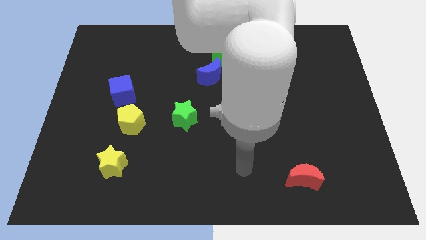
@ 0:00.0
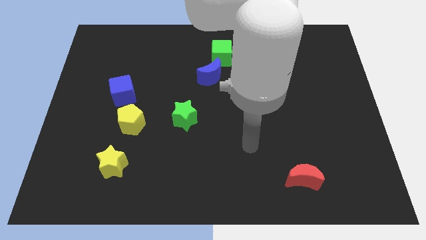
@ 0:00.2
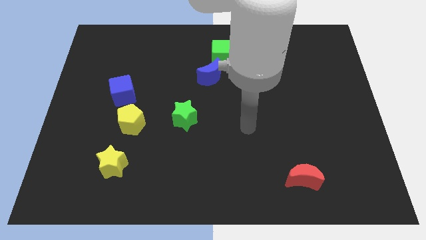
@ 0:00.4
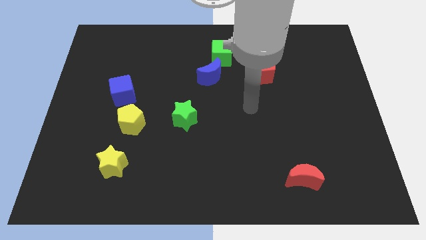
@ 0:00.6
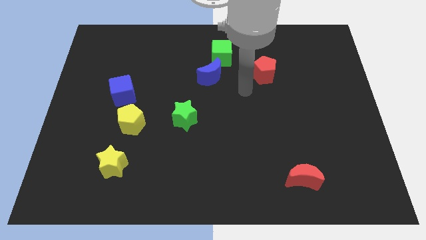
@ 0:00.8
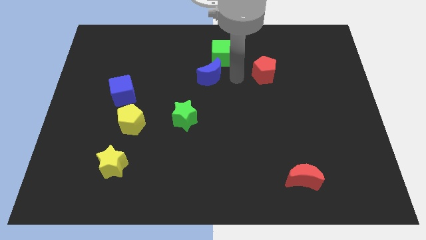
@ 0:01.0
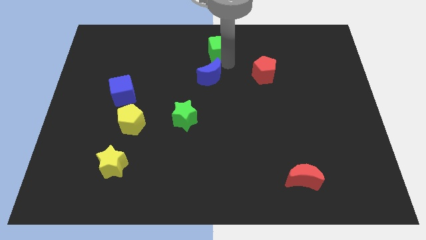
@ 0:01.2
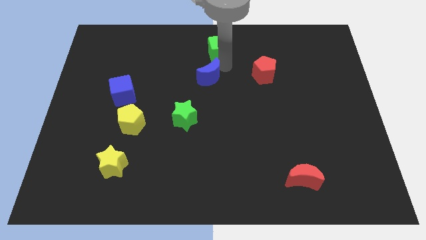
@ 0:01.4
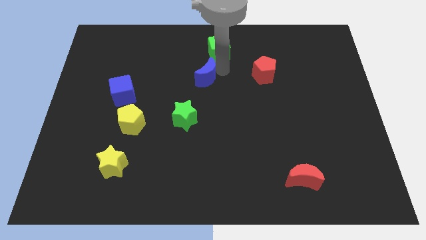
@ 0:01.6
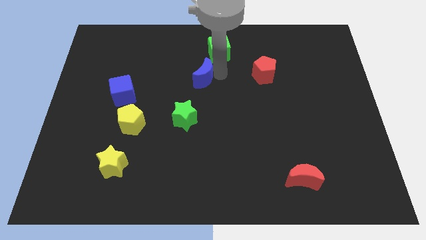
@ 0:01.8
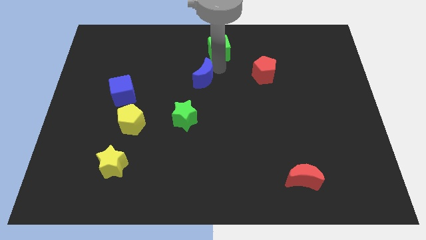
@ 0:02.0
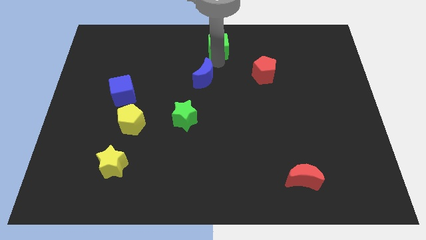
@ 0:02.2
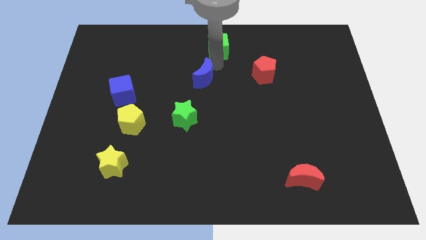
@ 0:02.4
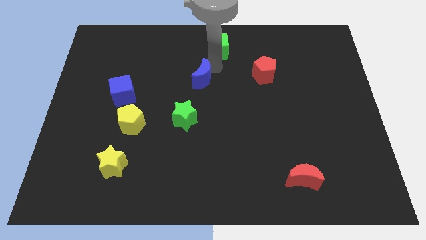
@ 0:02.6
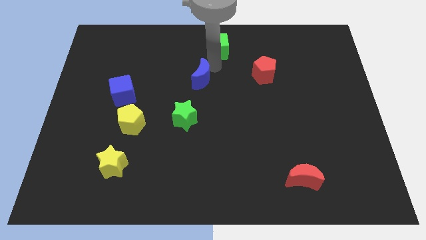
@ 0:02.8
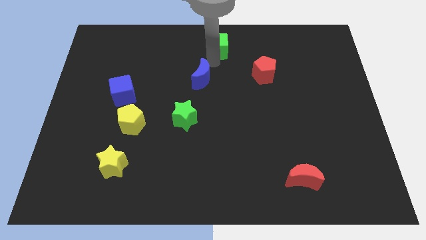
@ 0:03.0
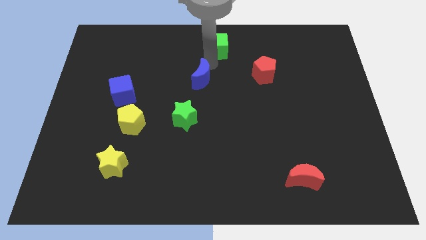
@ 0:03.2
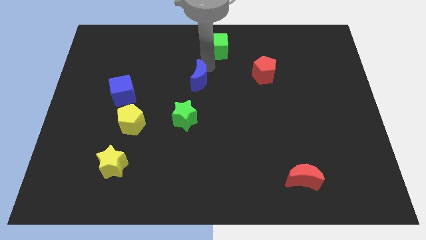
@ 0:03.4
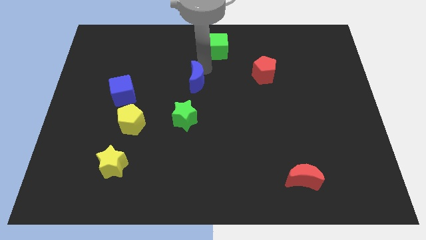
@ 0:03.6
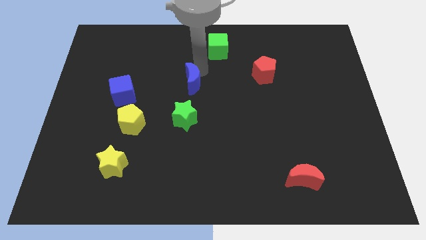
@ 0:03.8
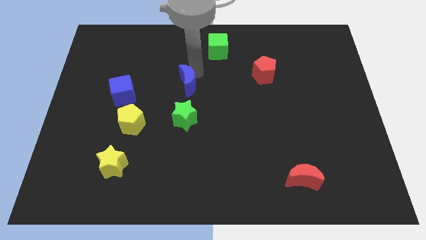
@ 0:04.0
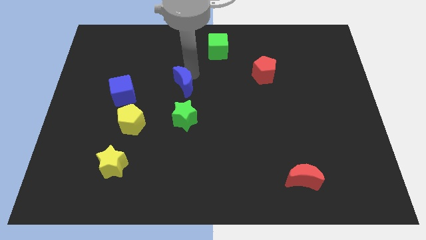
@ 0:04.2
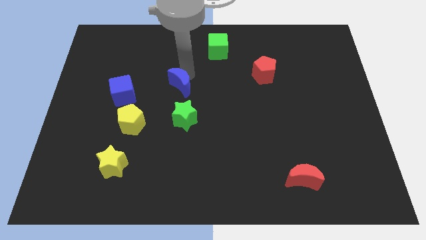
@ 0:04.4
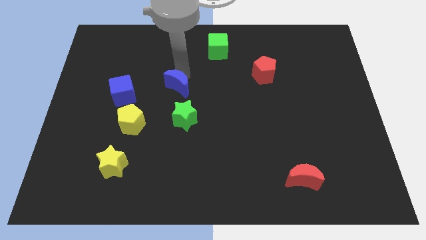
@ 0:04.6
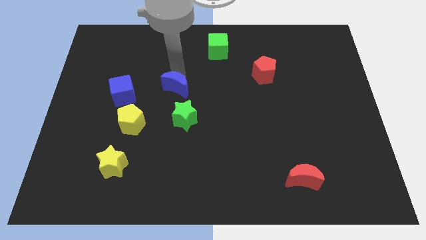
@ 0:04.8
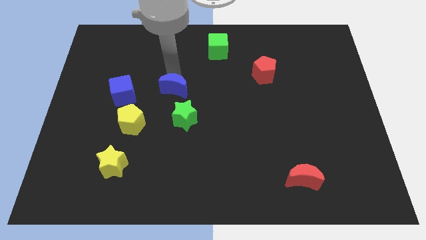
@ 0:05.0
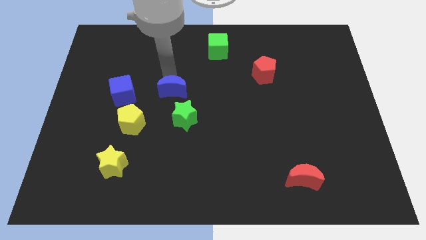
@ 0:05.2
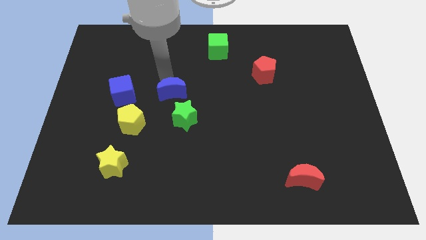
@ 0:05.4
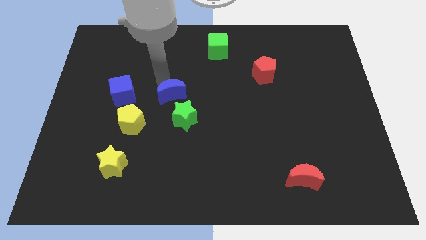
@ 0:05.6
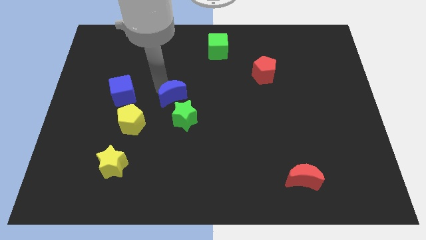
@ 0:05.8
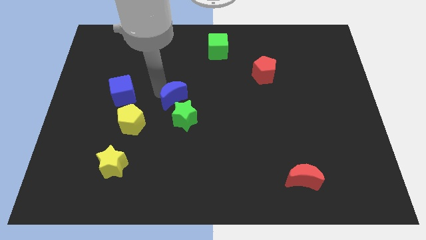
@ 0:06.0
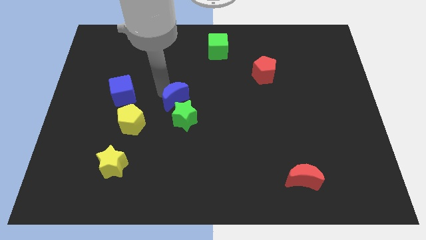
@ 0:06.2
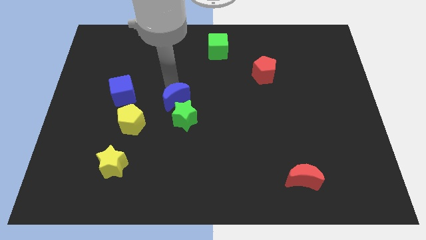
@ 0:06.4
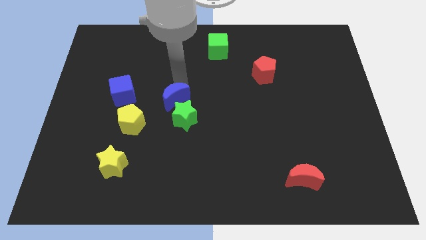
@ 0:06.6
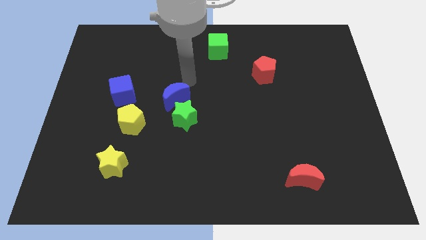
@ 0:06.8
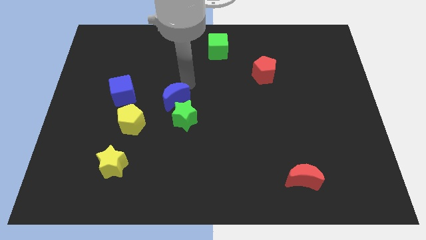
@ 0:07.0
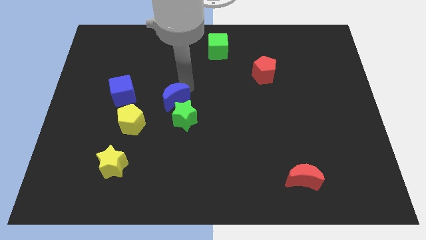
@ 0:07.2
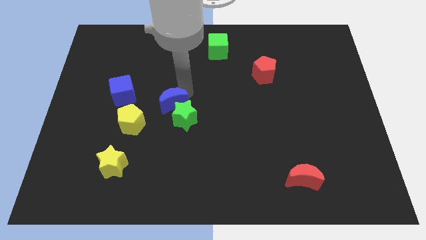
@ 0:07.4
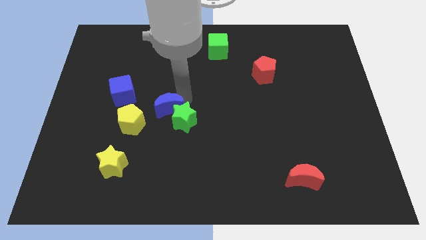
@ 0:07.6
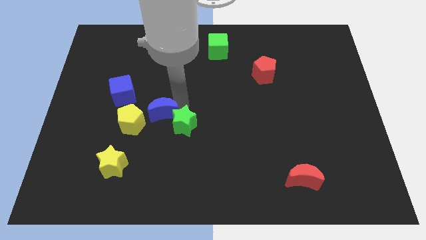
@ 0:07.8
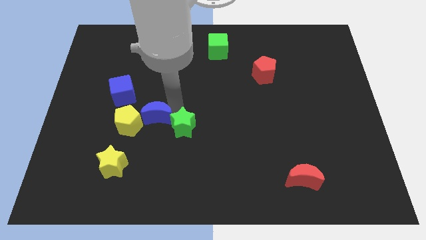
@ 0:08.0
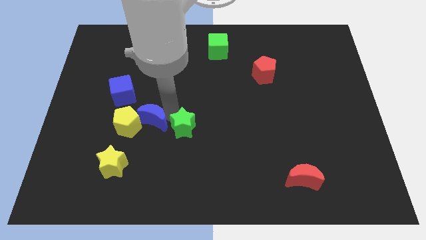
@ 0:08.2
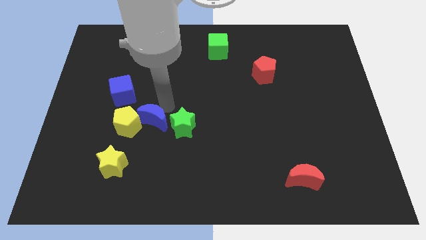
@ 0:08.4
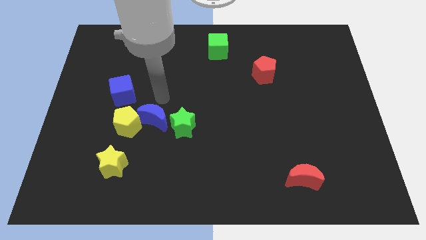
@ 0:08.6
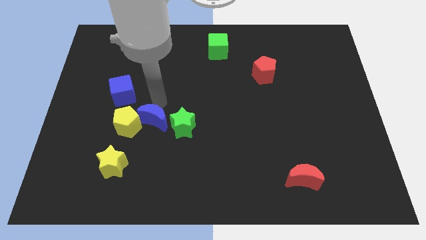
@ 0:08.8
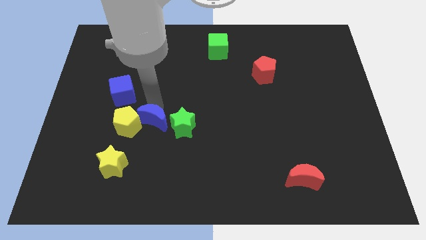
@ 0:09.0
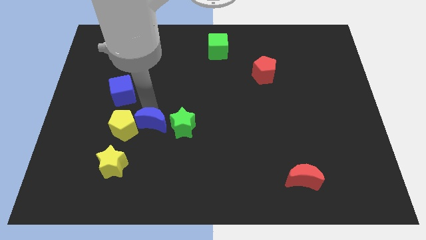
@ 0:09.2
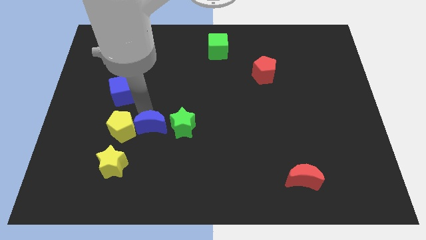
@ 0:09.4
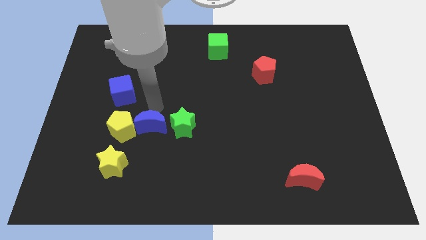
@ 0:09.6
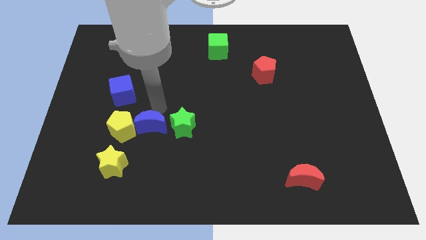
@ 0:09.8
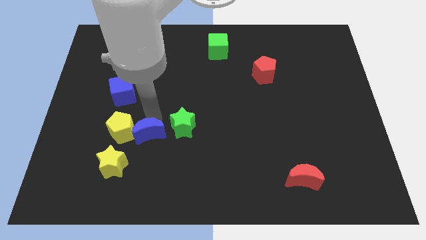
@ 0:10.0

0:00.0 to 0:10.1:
move the blue moon to the bottom right side of the yellow pentagon

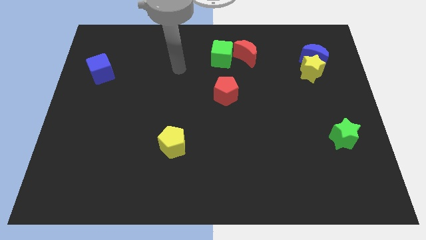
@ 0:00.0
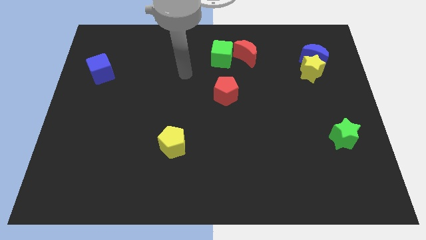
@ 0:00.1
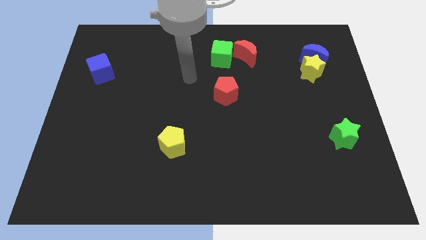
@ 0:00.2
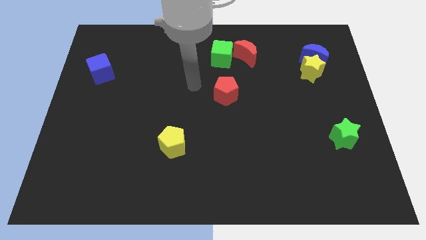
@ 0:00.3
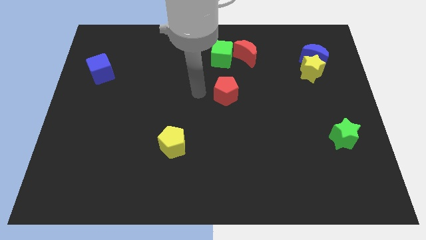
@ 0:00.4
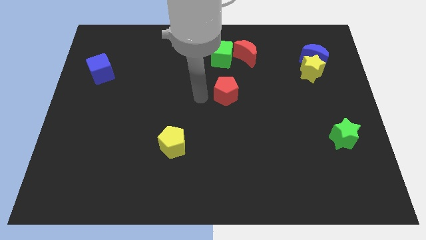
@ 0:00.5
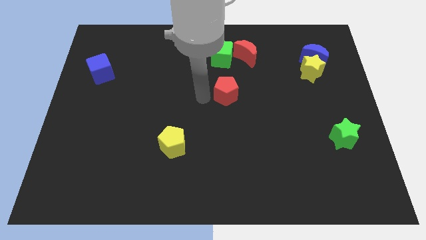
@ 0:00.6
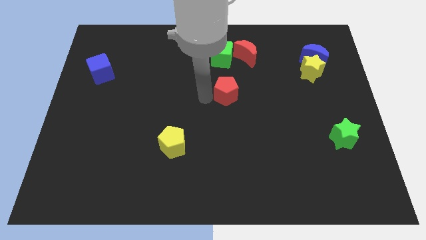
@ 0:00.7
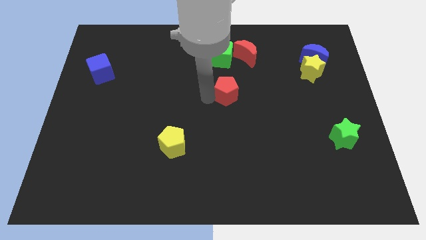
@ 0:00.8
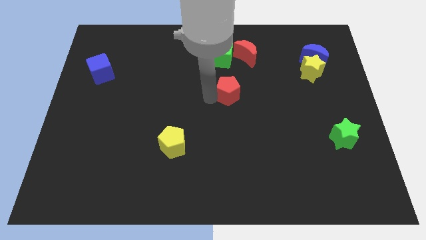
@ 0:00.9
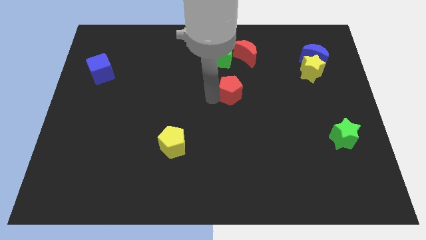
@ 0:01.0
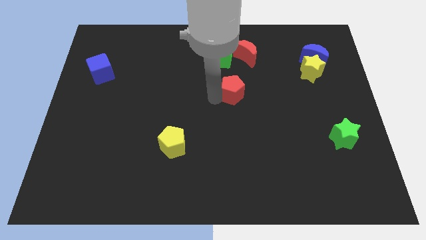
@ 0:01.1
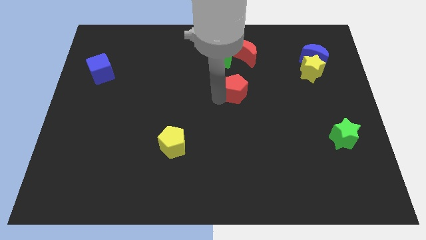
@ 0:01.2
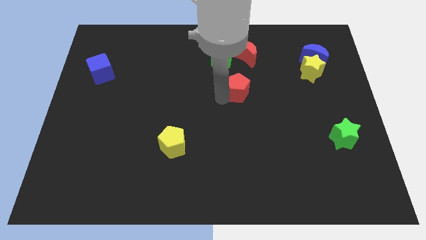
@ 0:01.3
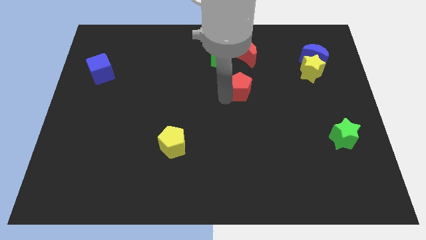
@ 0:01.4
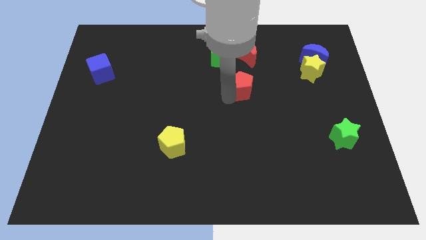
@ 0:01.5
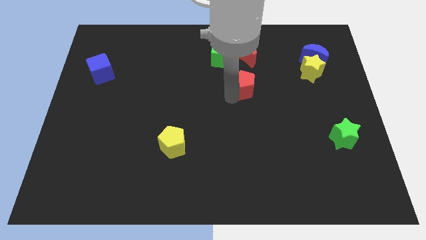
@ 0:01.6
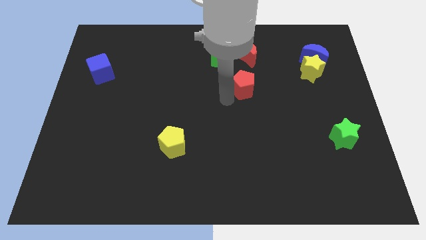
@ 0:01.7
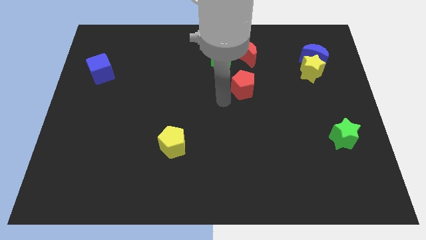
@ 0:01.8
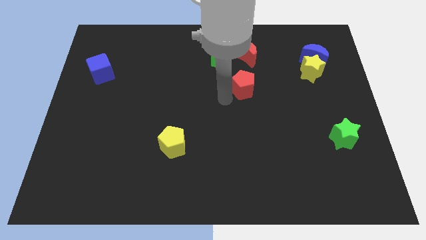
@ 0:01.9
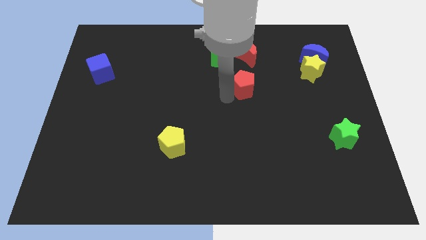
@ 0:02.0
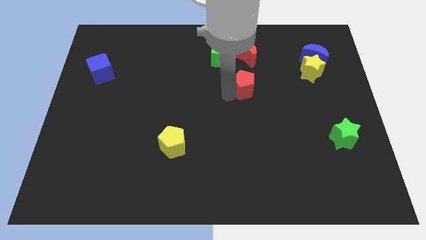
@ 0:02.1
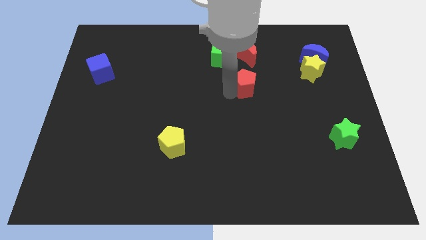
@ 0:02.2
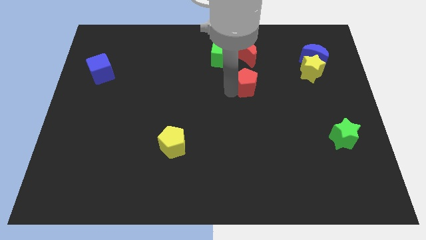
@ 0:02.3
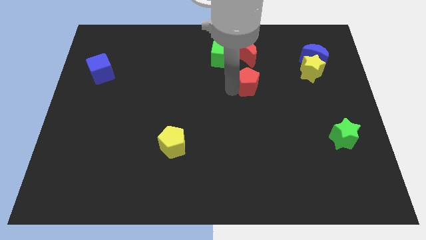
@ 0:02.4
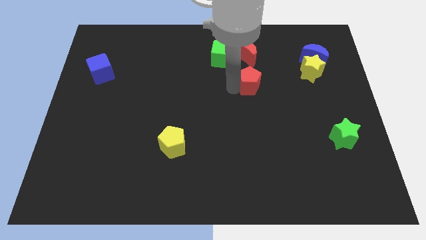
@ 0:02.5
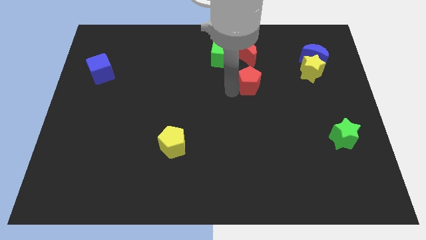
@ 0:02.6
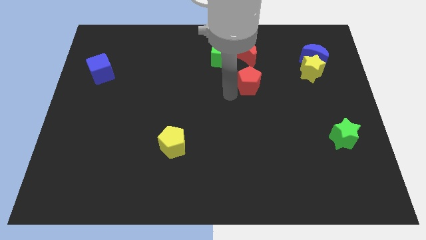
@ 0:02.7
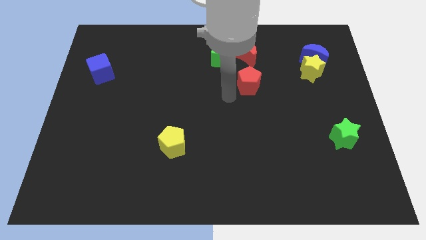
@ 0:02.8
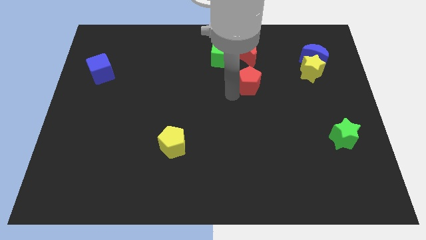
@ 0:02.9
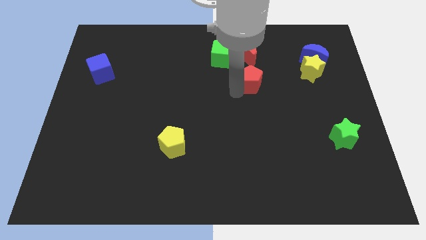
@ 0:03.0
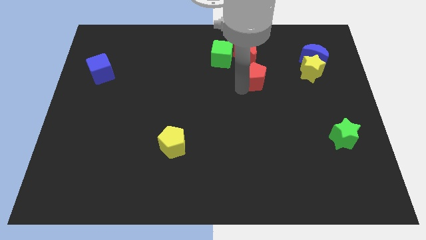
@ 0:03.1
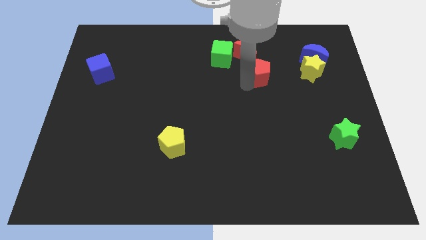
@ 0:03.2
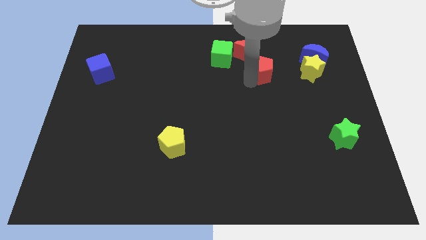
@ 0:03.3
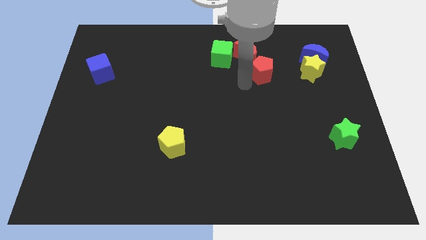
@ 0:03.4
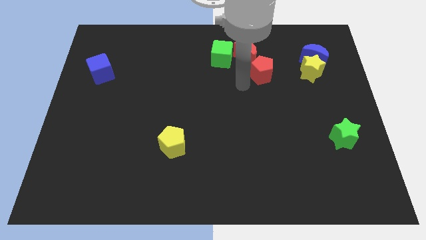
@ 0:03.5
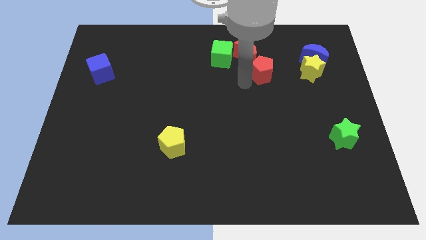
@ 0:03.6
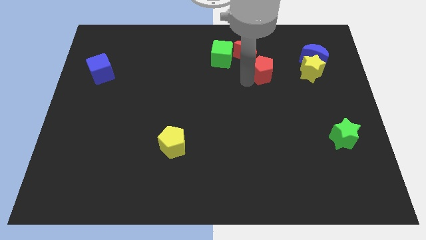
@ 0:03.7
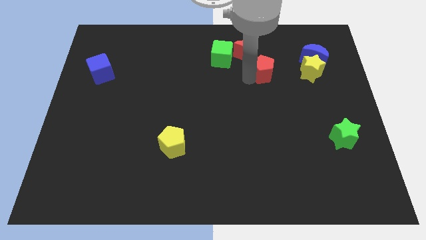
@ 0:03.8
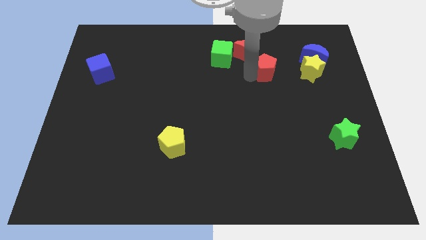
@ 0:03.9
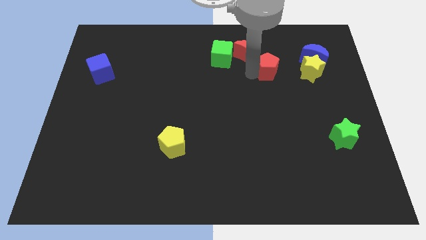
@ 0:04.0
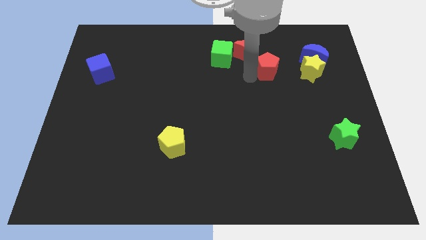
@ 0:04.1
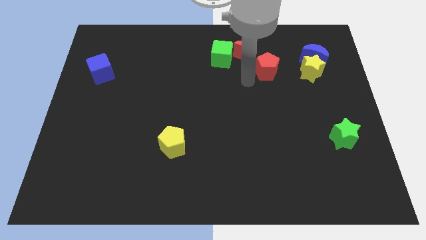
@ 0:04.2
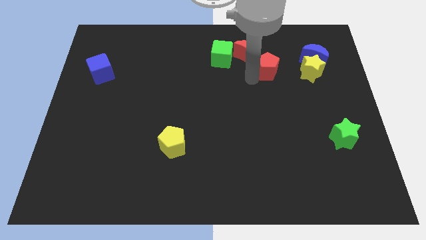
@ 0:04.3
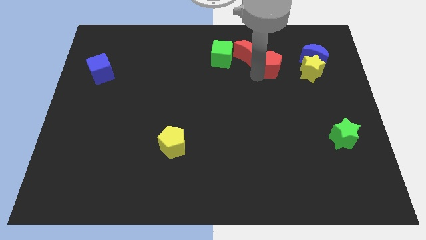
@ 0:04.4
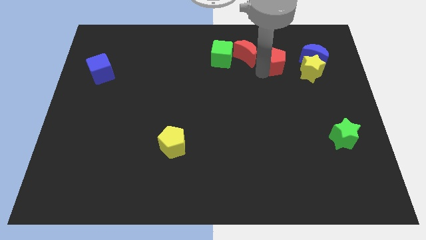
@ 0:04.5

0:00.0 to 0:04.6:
slide the red pentagon diagonally up and to the left of the yellow star
